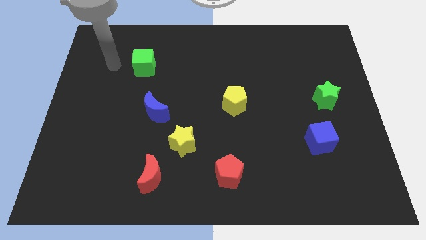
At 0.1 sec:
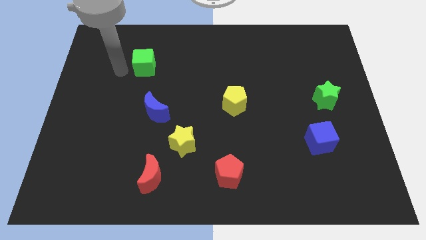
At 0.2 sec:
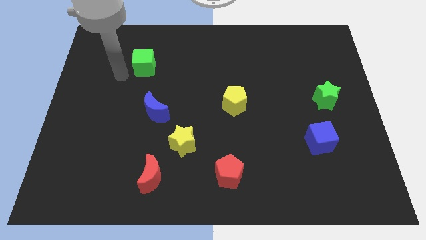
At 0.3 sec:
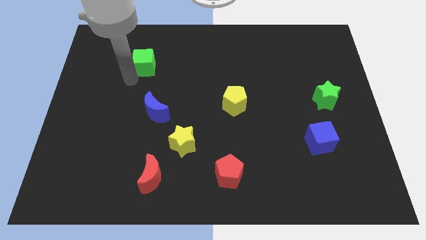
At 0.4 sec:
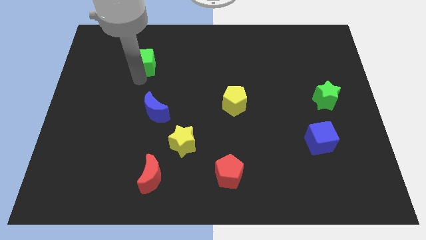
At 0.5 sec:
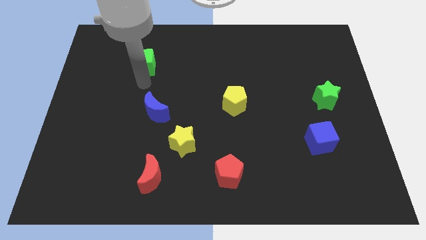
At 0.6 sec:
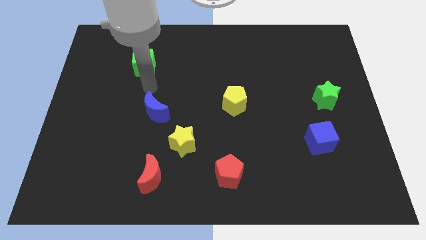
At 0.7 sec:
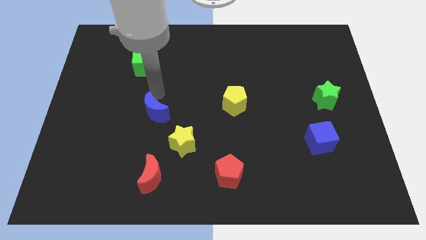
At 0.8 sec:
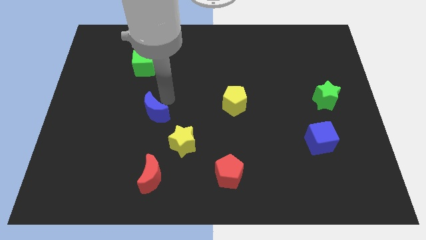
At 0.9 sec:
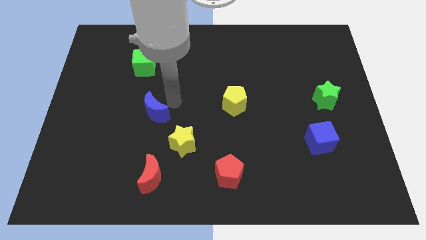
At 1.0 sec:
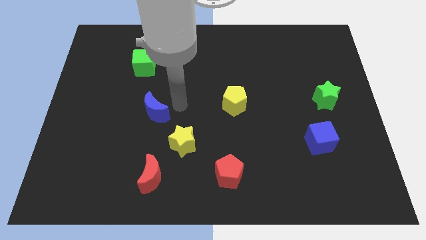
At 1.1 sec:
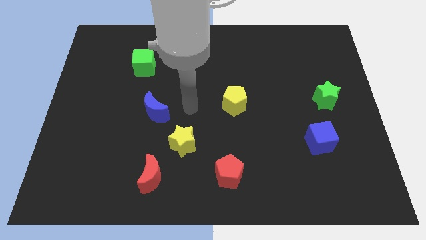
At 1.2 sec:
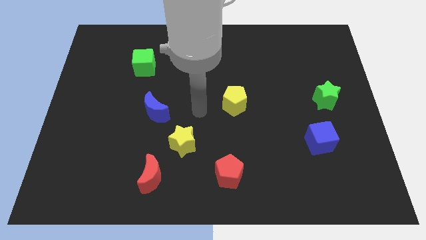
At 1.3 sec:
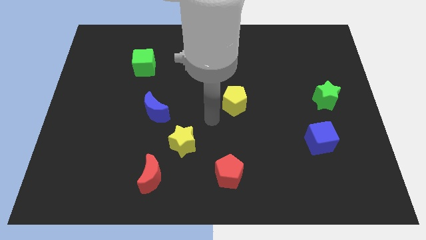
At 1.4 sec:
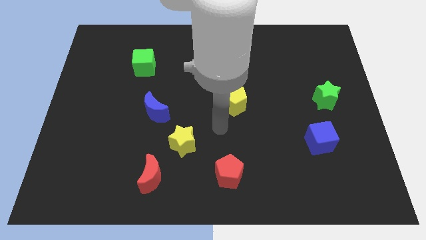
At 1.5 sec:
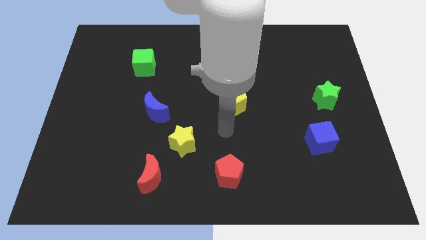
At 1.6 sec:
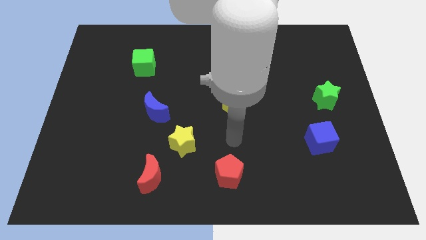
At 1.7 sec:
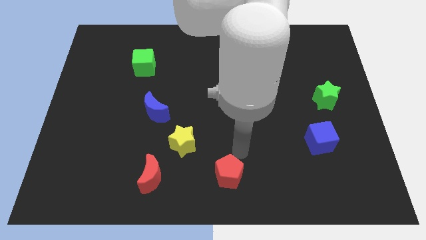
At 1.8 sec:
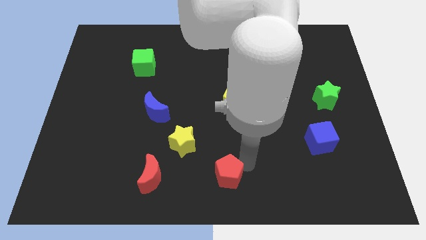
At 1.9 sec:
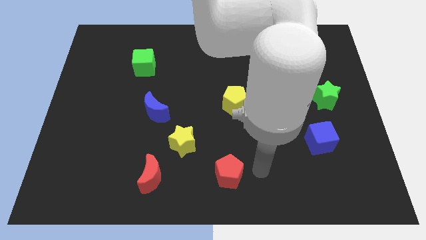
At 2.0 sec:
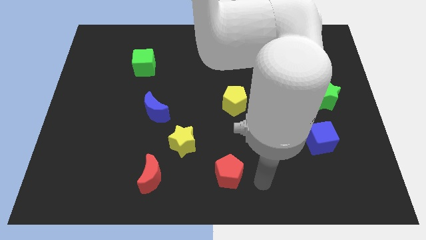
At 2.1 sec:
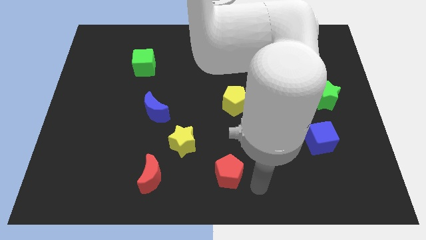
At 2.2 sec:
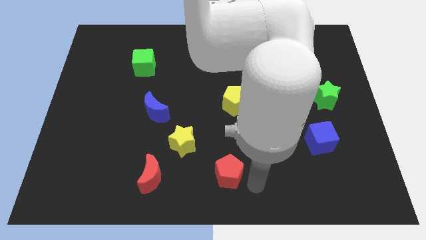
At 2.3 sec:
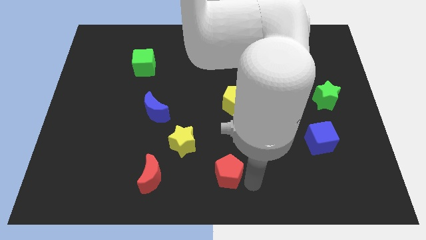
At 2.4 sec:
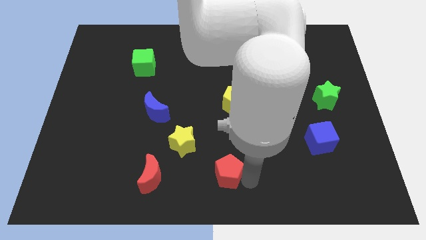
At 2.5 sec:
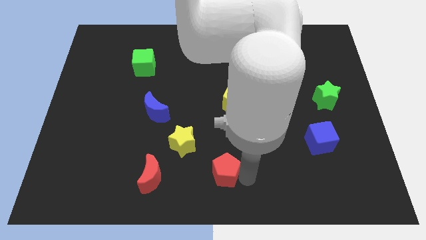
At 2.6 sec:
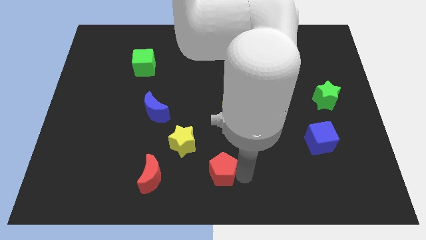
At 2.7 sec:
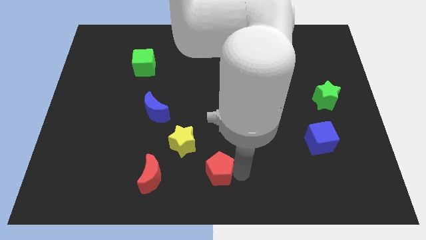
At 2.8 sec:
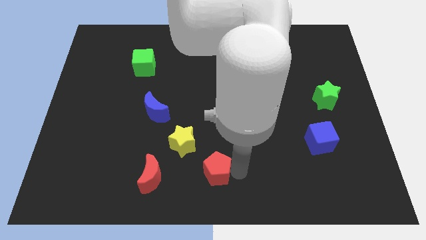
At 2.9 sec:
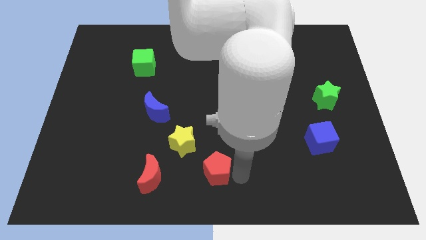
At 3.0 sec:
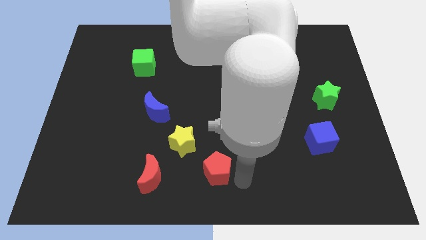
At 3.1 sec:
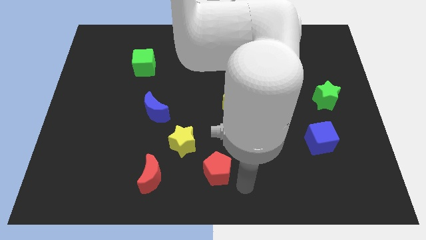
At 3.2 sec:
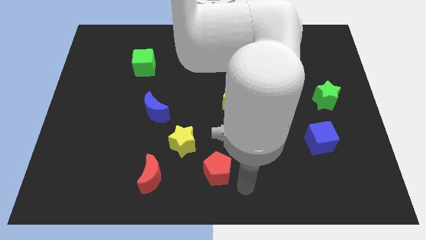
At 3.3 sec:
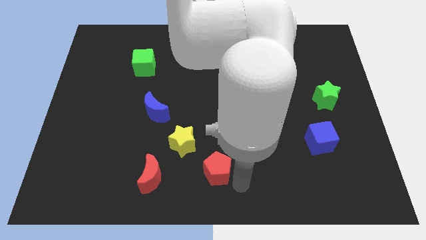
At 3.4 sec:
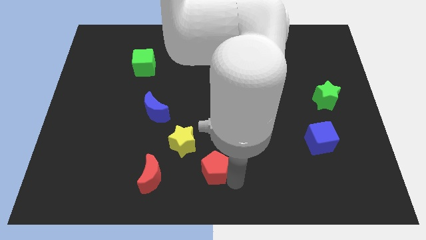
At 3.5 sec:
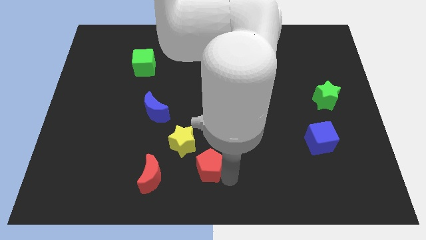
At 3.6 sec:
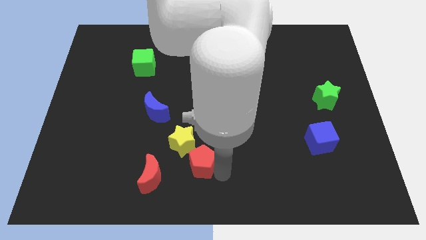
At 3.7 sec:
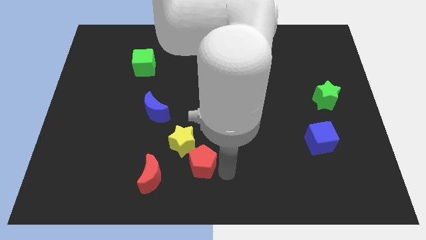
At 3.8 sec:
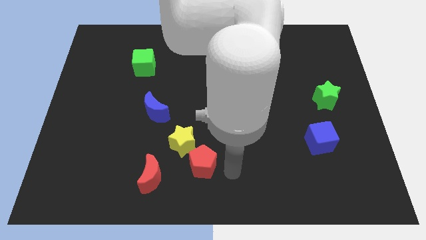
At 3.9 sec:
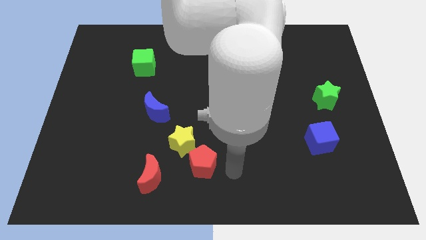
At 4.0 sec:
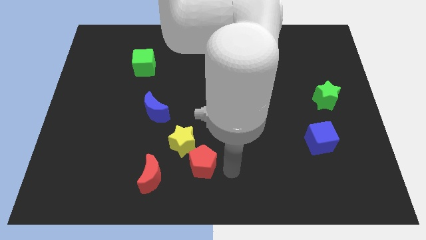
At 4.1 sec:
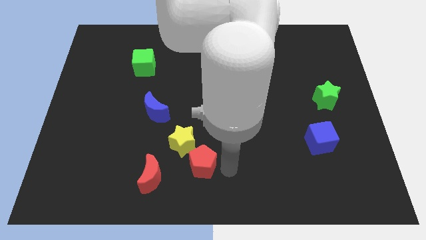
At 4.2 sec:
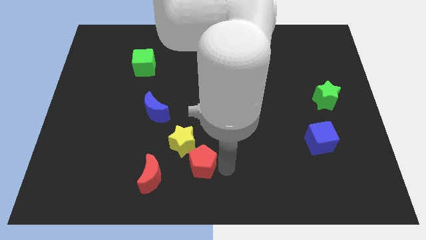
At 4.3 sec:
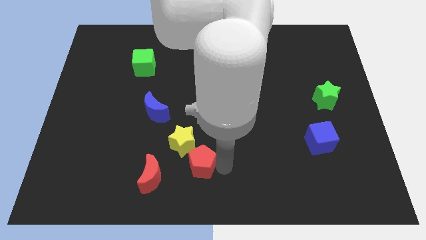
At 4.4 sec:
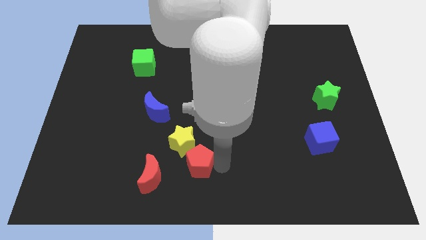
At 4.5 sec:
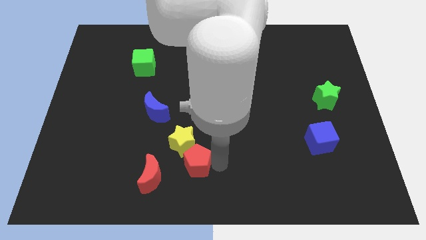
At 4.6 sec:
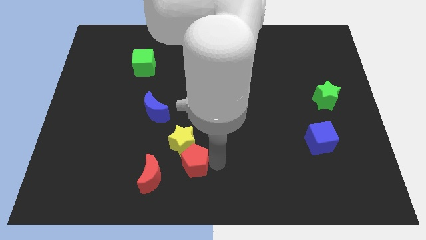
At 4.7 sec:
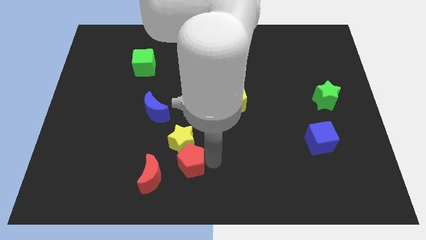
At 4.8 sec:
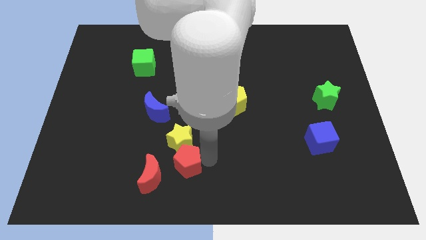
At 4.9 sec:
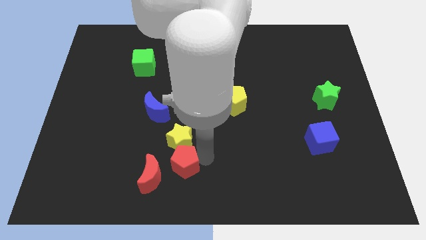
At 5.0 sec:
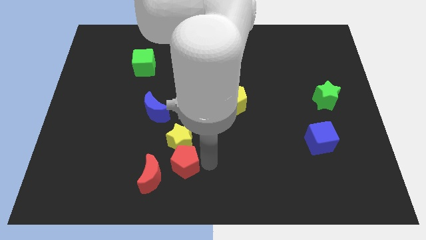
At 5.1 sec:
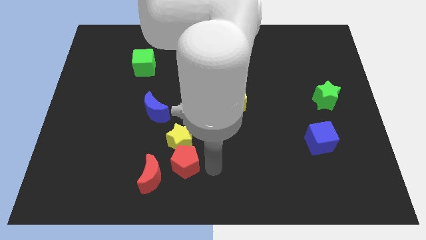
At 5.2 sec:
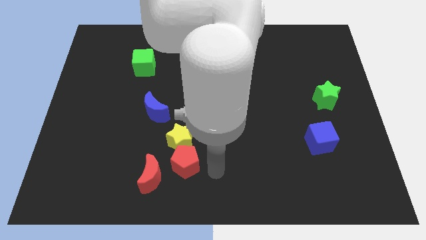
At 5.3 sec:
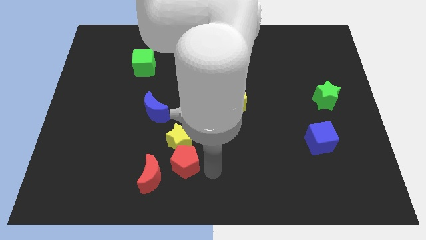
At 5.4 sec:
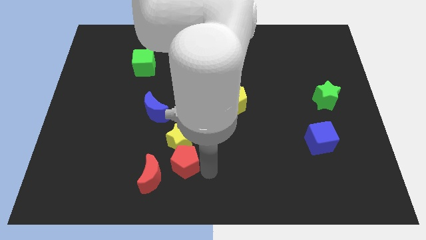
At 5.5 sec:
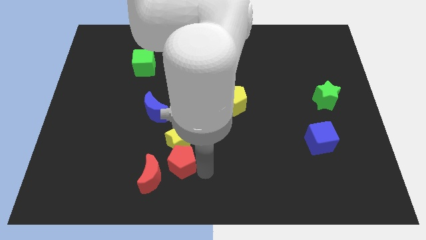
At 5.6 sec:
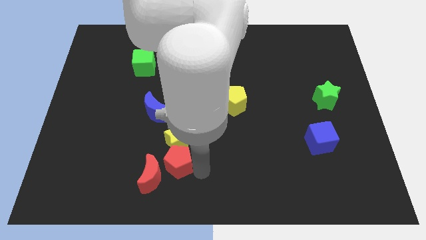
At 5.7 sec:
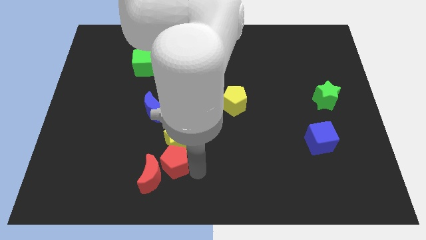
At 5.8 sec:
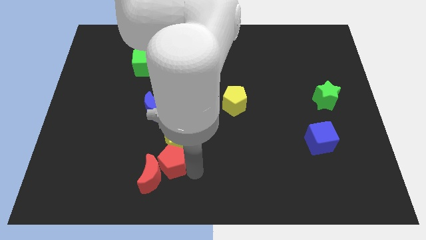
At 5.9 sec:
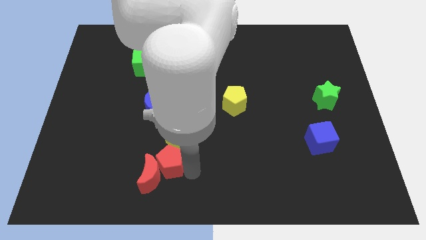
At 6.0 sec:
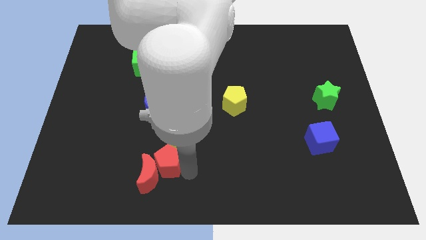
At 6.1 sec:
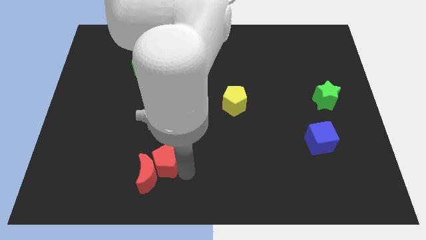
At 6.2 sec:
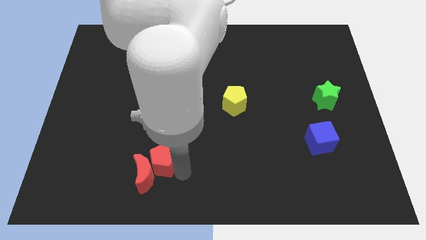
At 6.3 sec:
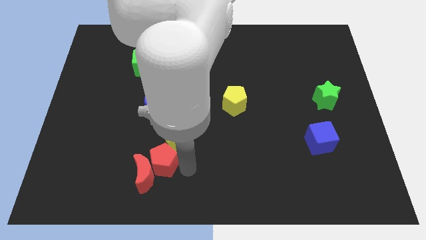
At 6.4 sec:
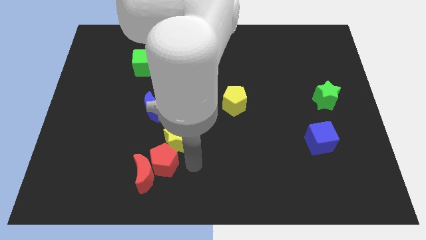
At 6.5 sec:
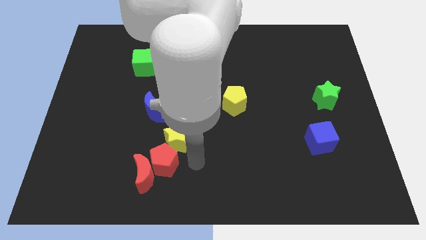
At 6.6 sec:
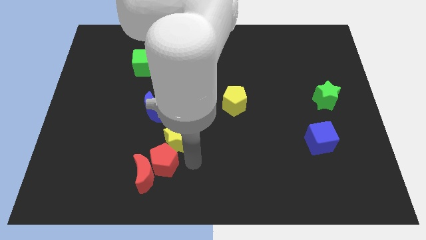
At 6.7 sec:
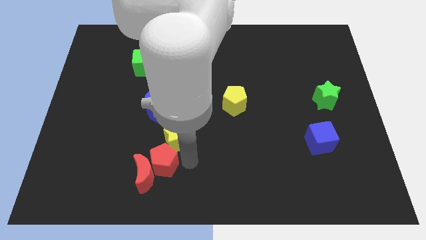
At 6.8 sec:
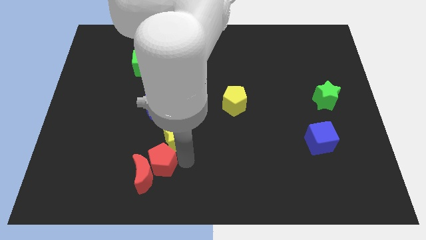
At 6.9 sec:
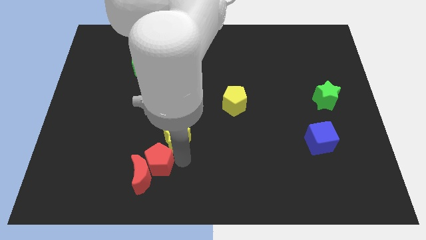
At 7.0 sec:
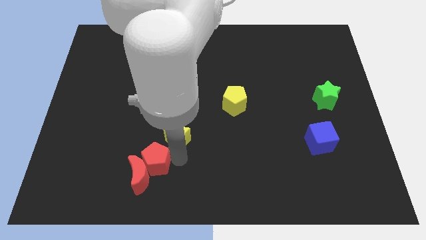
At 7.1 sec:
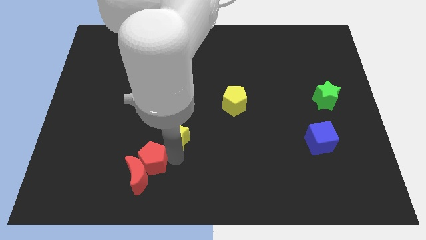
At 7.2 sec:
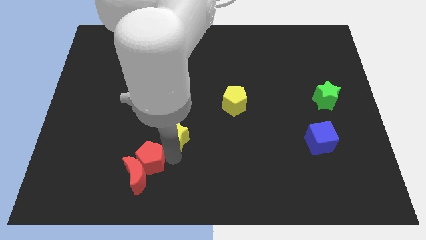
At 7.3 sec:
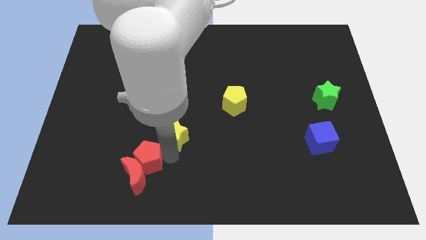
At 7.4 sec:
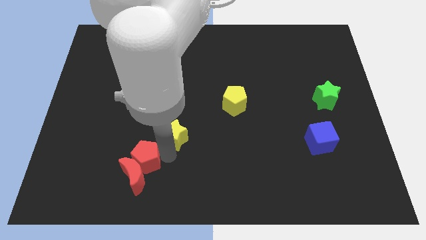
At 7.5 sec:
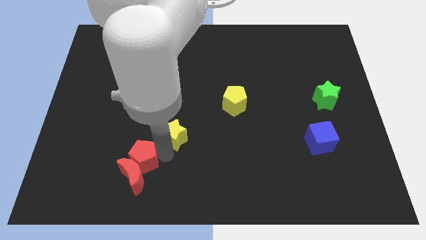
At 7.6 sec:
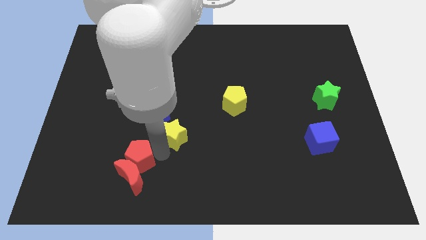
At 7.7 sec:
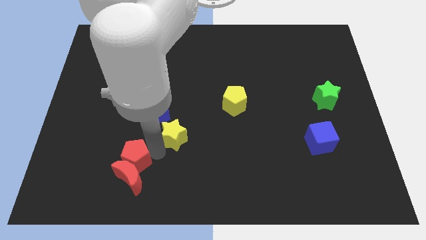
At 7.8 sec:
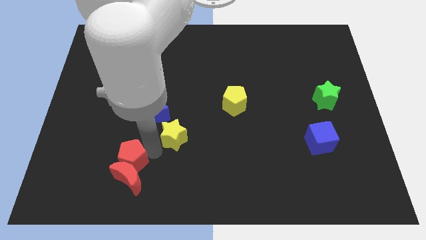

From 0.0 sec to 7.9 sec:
slide the red pentagon to the left

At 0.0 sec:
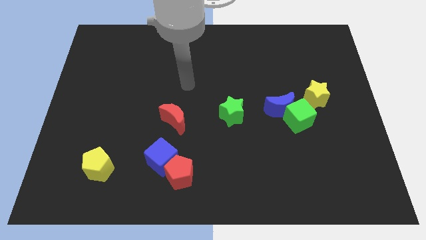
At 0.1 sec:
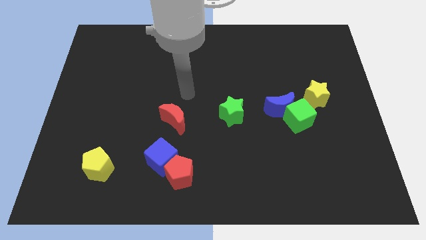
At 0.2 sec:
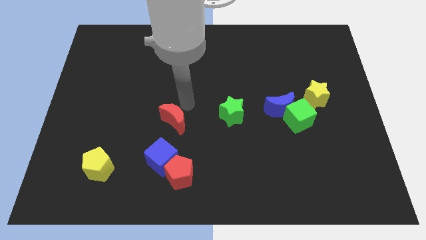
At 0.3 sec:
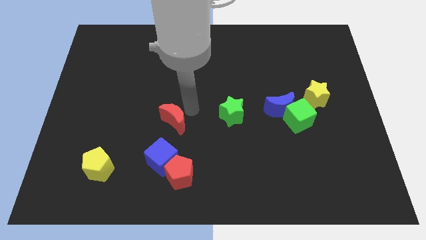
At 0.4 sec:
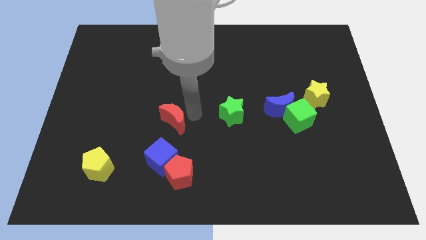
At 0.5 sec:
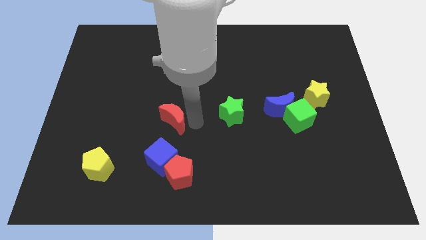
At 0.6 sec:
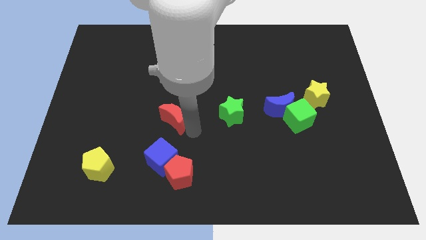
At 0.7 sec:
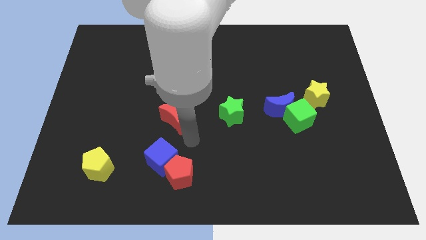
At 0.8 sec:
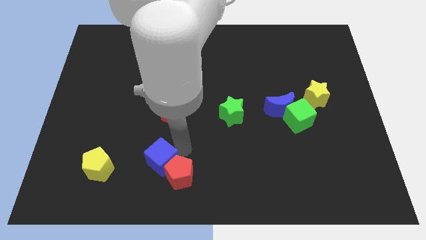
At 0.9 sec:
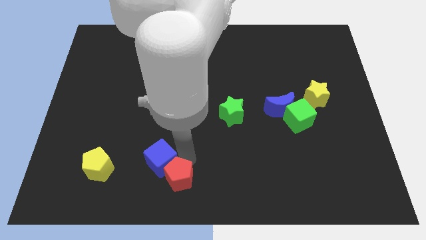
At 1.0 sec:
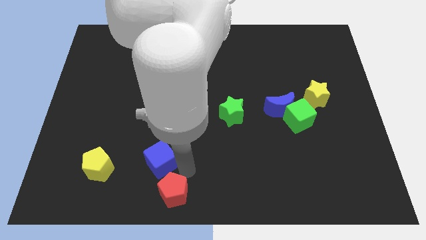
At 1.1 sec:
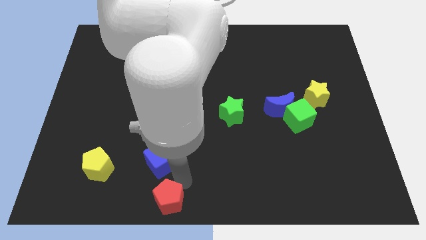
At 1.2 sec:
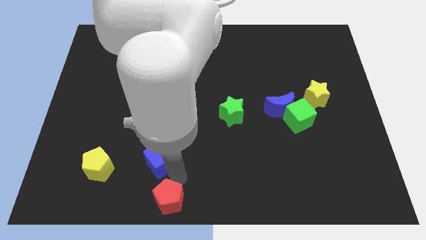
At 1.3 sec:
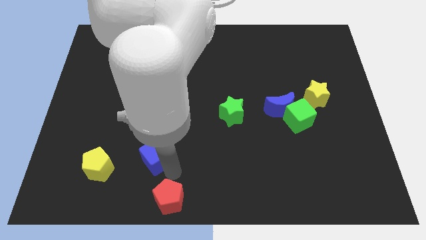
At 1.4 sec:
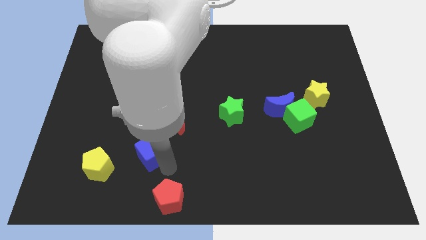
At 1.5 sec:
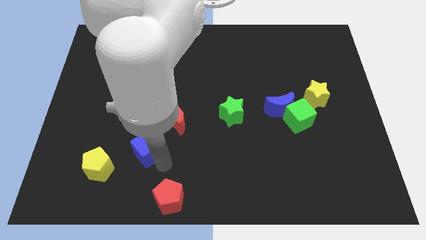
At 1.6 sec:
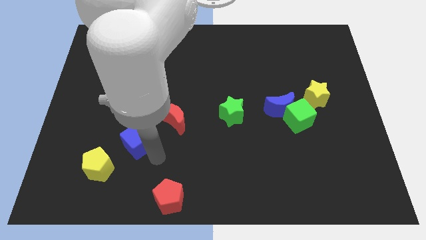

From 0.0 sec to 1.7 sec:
move the blue cube diagonally upwards and to the left a little bit
